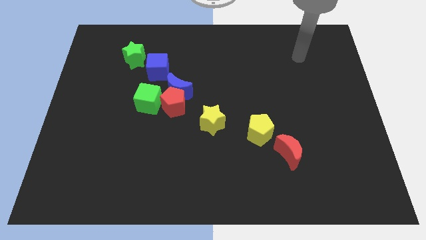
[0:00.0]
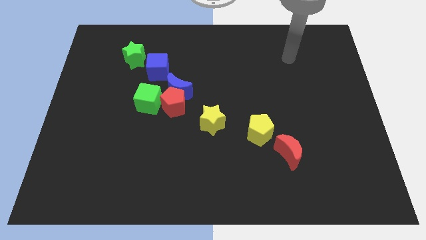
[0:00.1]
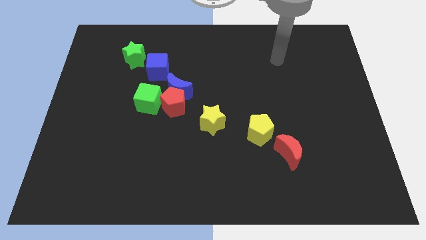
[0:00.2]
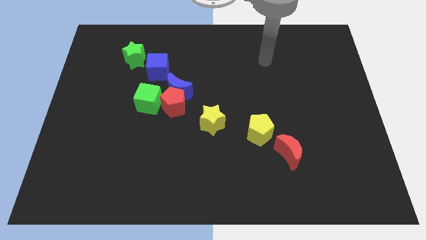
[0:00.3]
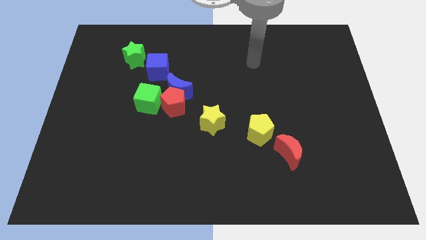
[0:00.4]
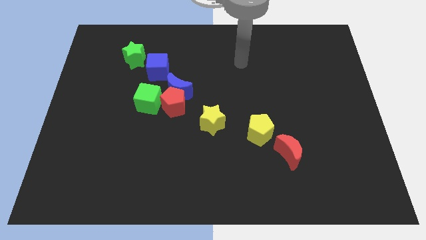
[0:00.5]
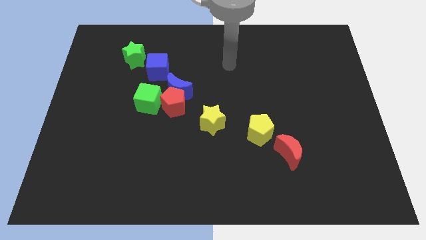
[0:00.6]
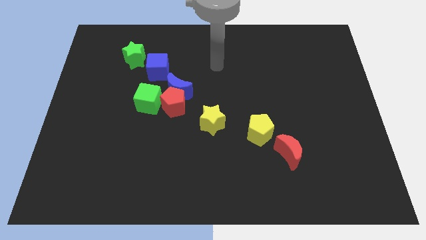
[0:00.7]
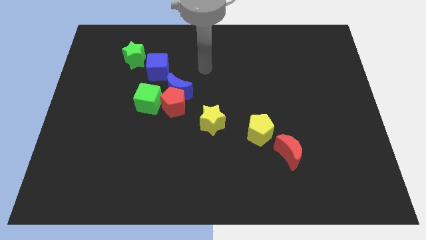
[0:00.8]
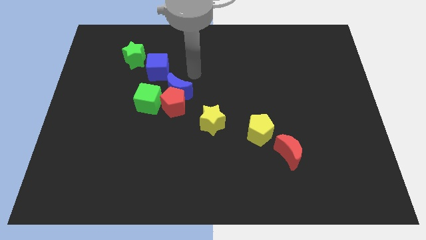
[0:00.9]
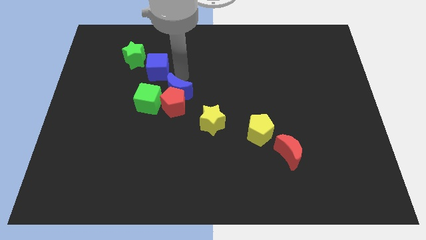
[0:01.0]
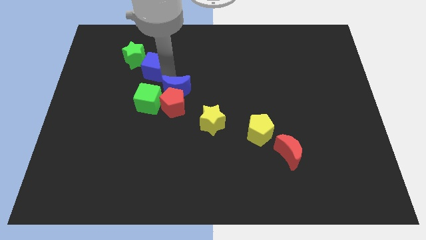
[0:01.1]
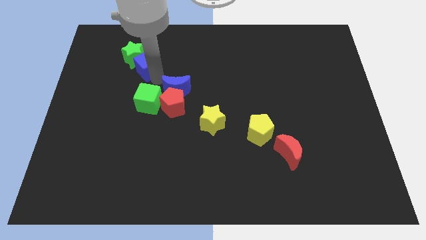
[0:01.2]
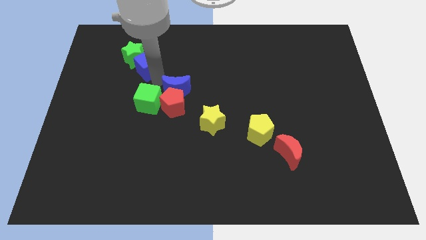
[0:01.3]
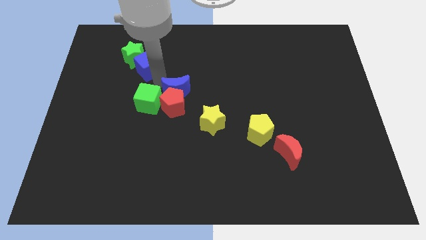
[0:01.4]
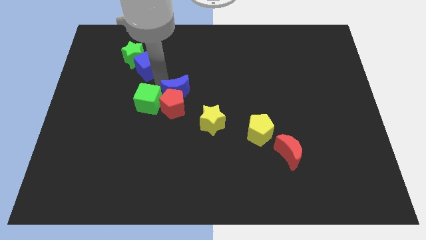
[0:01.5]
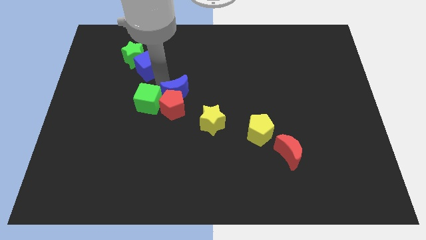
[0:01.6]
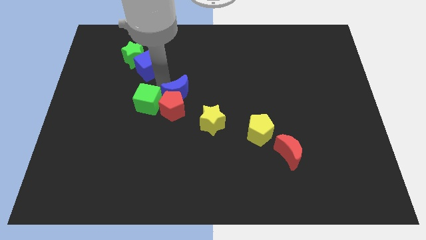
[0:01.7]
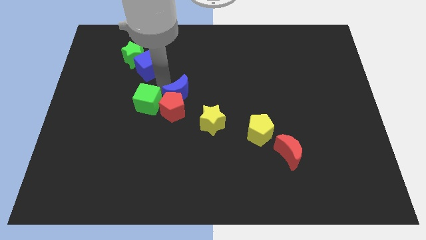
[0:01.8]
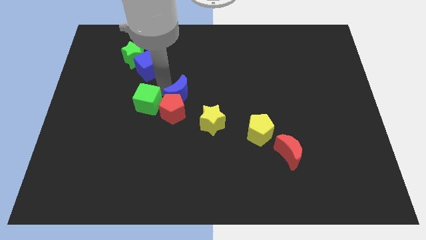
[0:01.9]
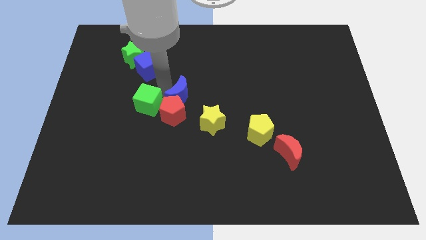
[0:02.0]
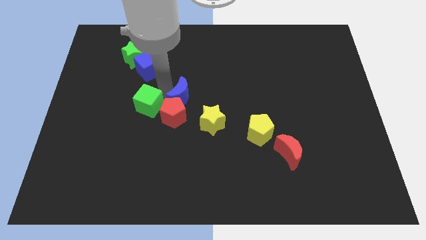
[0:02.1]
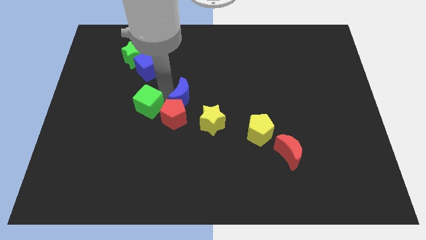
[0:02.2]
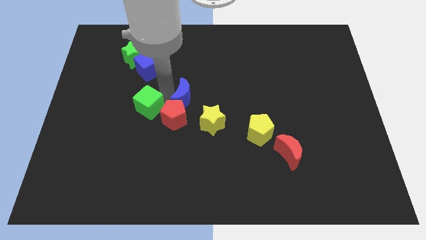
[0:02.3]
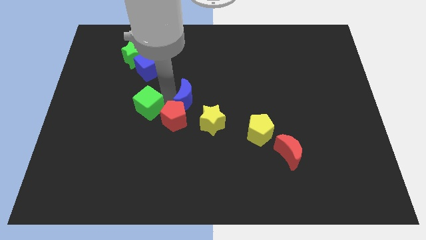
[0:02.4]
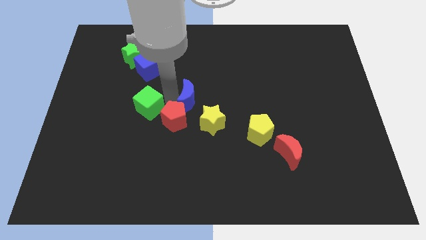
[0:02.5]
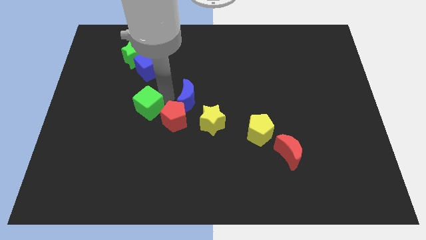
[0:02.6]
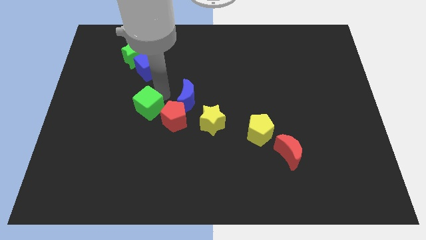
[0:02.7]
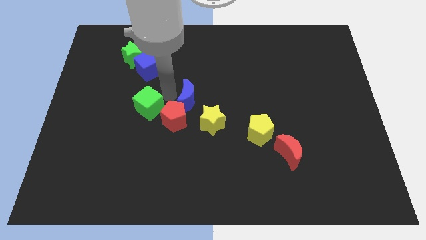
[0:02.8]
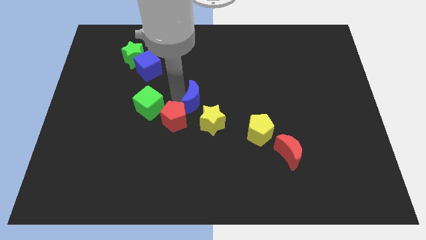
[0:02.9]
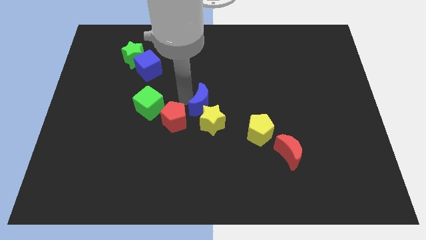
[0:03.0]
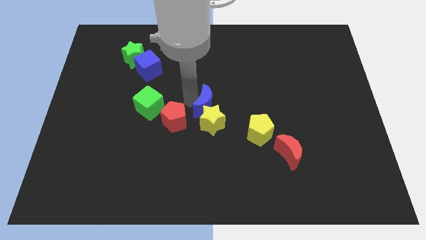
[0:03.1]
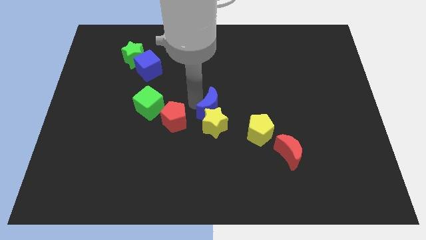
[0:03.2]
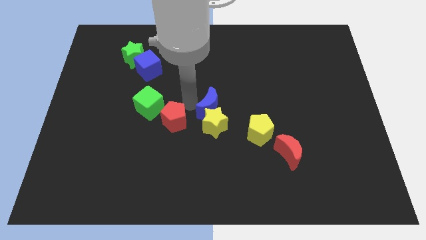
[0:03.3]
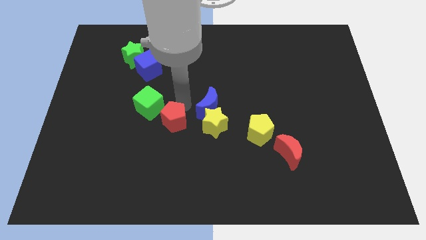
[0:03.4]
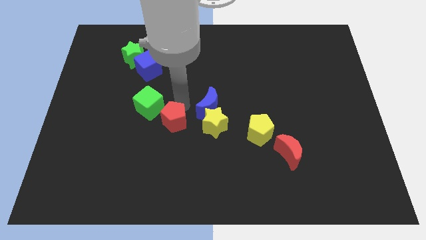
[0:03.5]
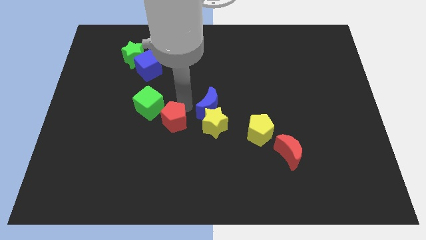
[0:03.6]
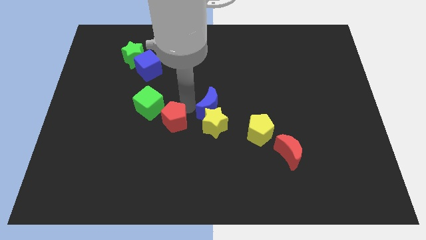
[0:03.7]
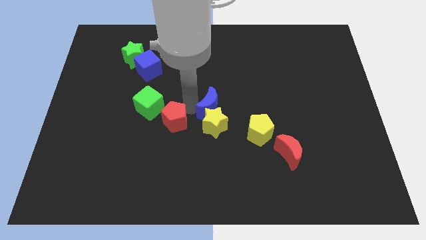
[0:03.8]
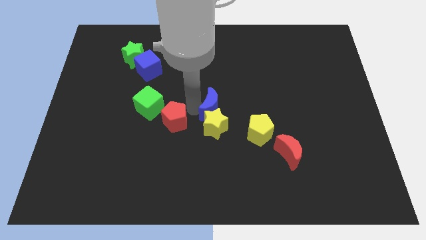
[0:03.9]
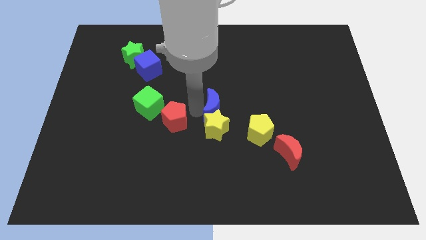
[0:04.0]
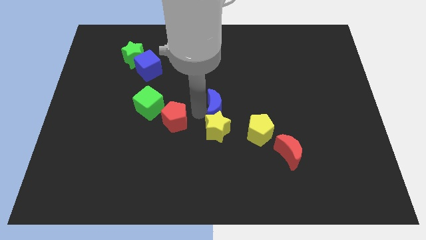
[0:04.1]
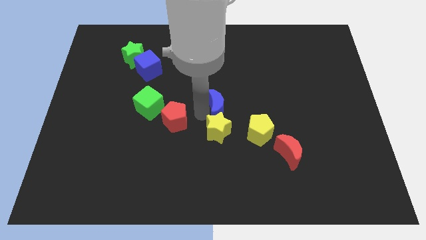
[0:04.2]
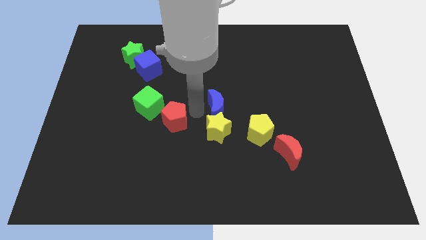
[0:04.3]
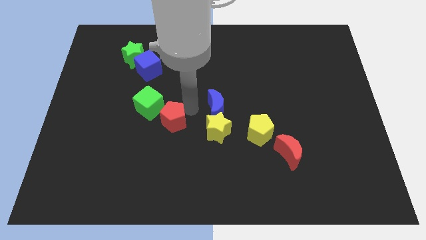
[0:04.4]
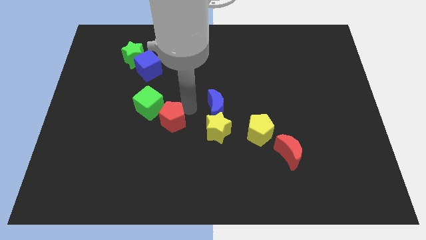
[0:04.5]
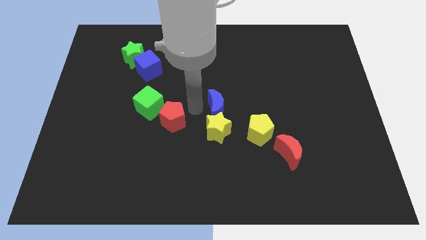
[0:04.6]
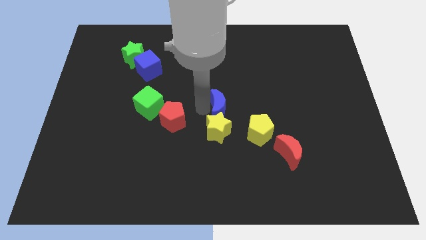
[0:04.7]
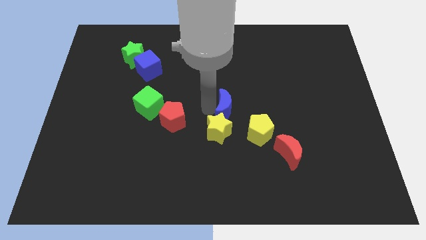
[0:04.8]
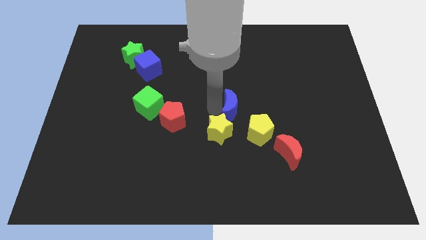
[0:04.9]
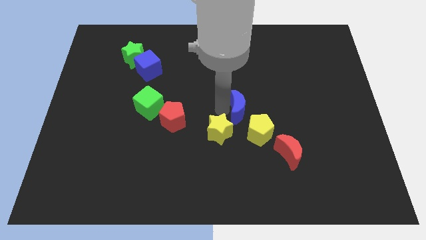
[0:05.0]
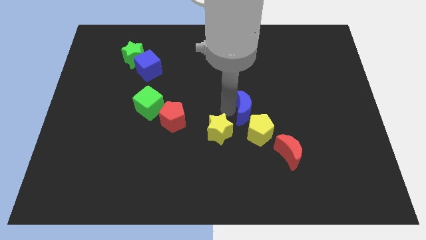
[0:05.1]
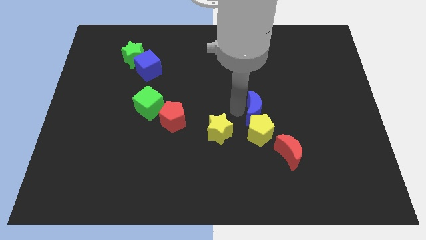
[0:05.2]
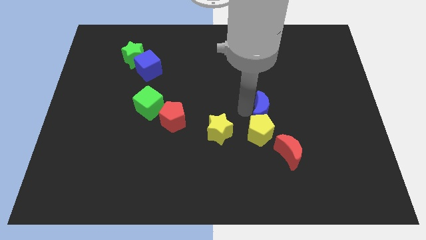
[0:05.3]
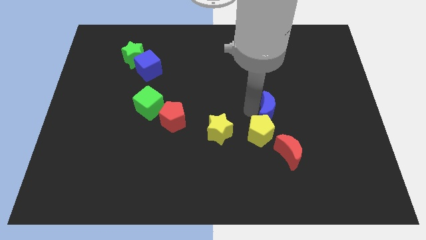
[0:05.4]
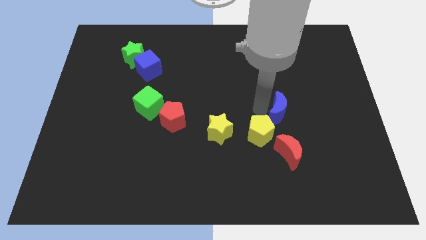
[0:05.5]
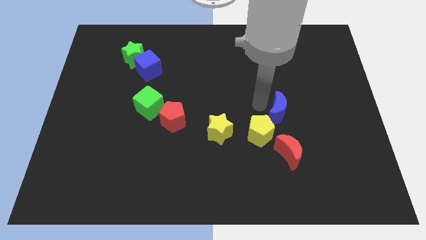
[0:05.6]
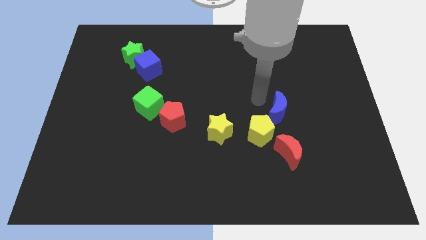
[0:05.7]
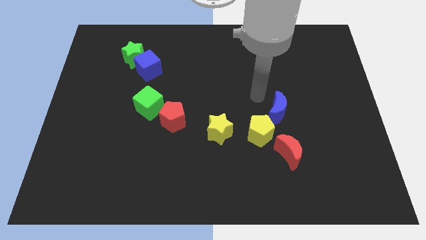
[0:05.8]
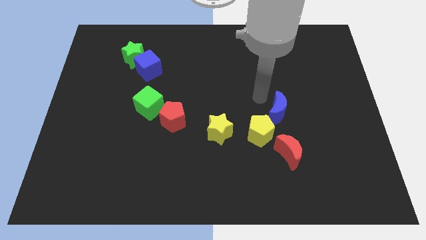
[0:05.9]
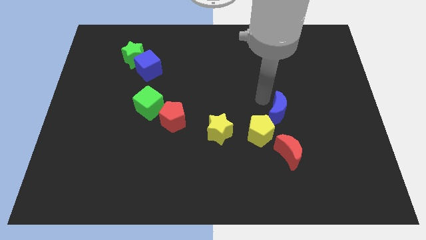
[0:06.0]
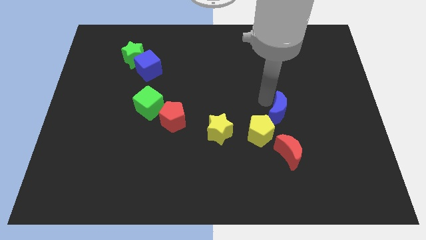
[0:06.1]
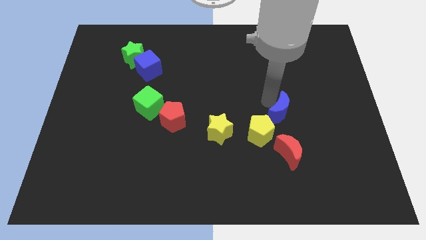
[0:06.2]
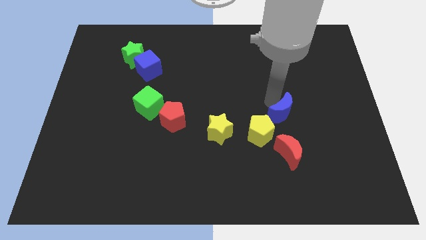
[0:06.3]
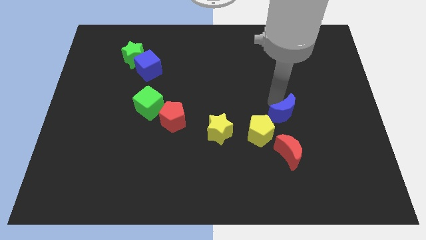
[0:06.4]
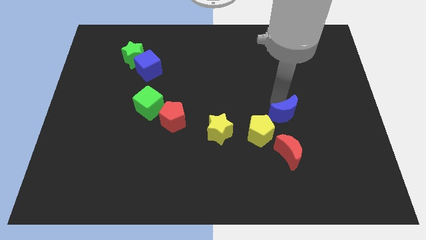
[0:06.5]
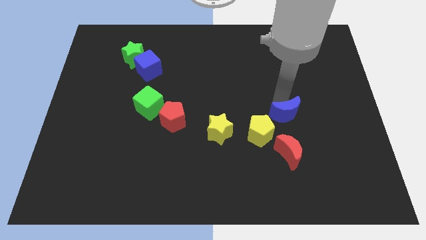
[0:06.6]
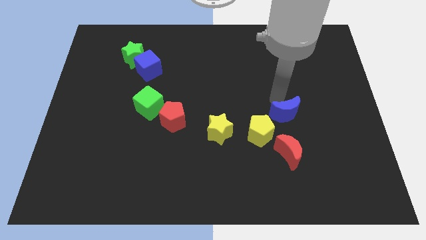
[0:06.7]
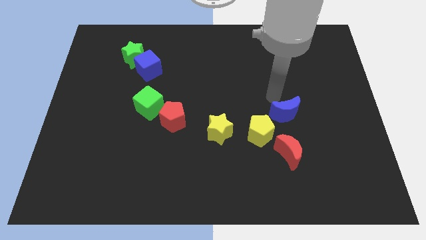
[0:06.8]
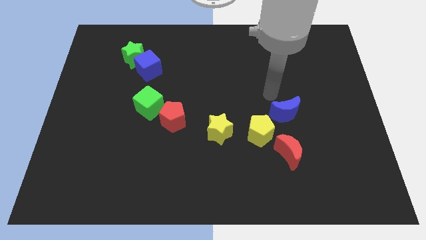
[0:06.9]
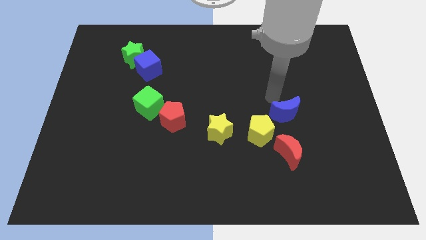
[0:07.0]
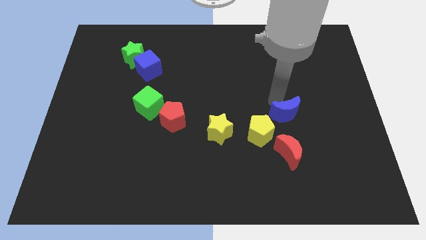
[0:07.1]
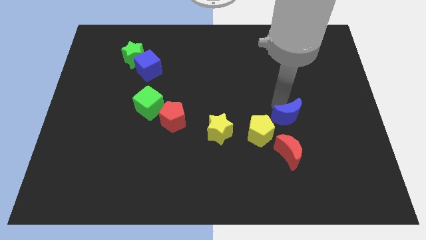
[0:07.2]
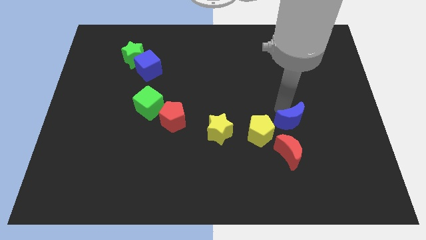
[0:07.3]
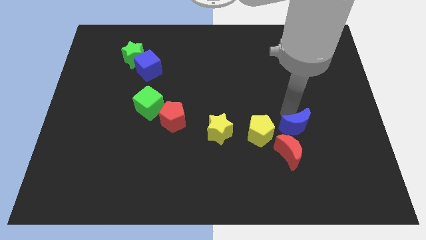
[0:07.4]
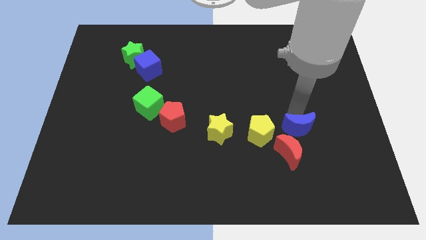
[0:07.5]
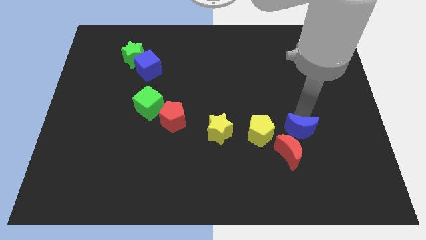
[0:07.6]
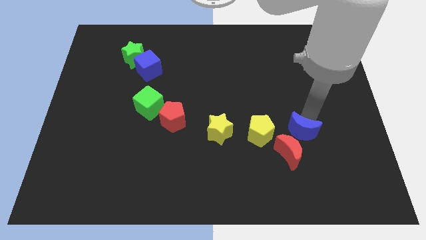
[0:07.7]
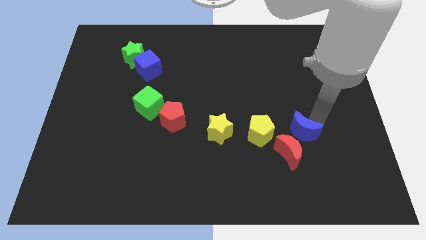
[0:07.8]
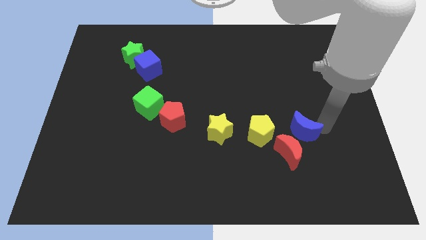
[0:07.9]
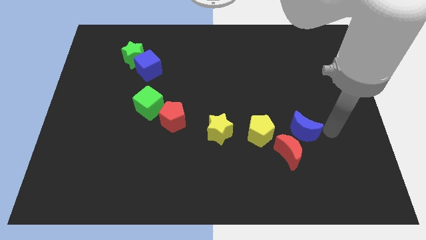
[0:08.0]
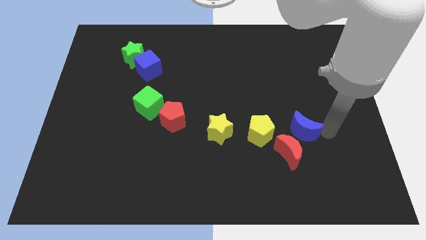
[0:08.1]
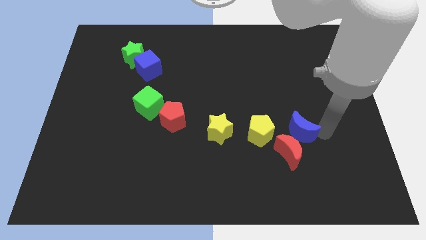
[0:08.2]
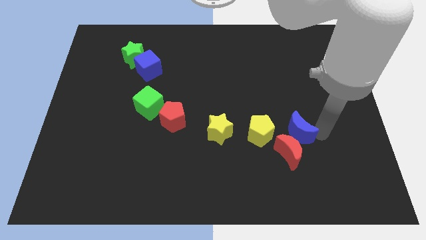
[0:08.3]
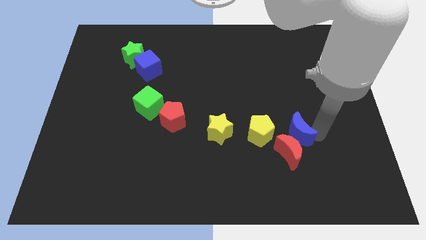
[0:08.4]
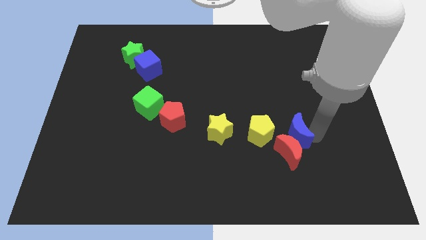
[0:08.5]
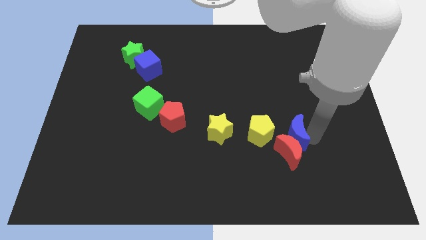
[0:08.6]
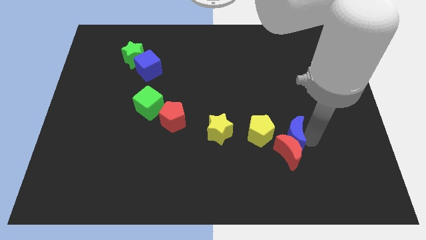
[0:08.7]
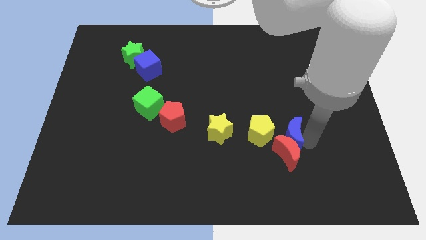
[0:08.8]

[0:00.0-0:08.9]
slide the blue moon to the right side of the yellow star
